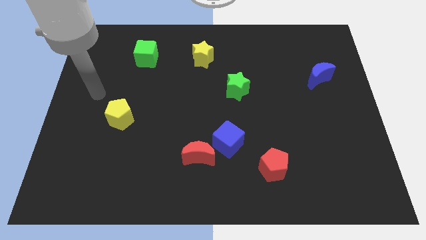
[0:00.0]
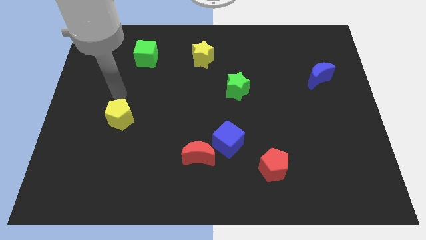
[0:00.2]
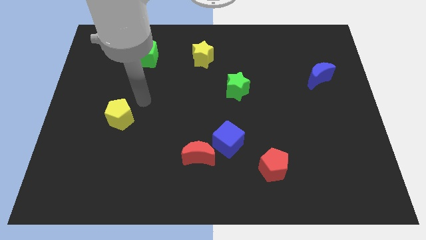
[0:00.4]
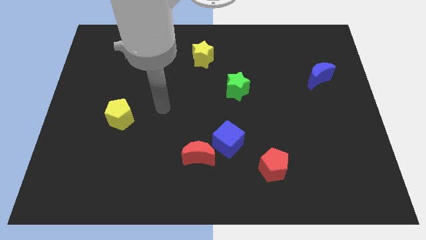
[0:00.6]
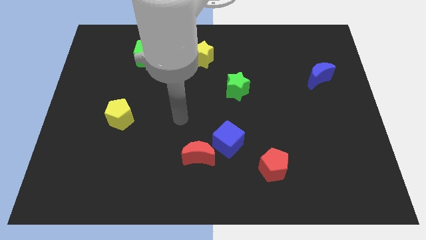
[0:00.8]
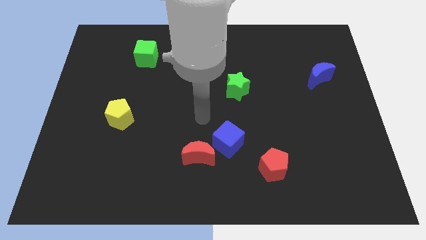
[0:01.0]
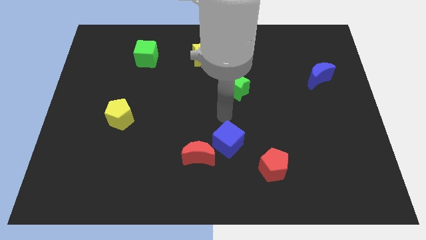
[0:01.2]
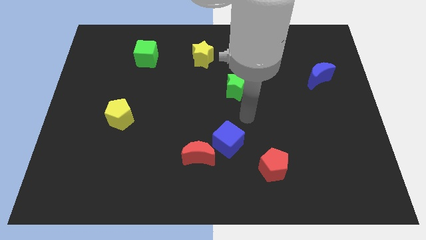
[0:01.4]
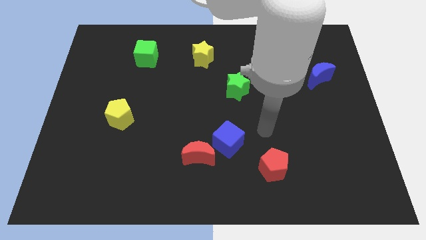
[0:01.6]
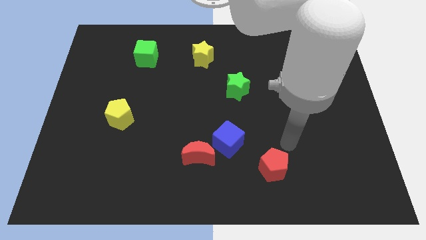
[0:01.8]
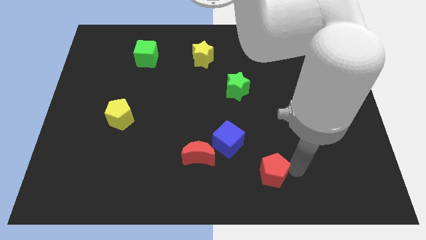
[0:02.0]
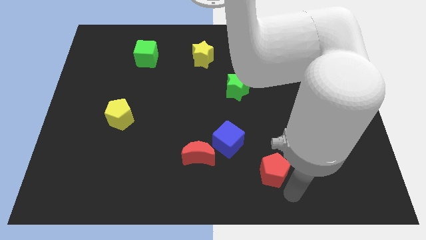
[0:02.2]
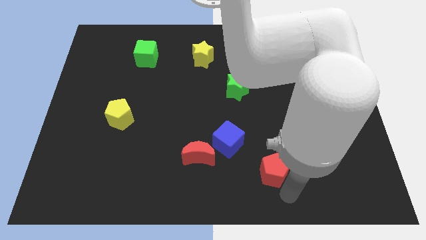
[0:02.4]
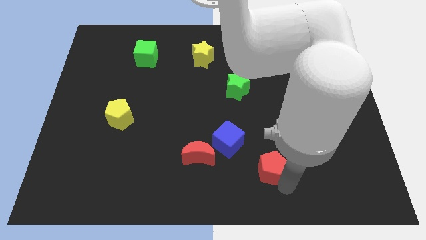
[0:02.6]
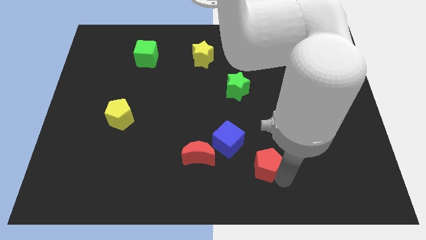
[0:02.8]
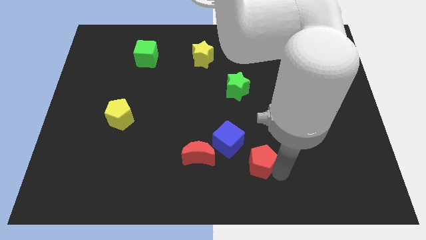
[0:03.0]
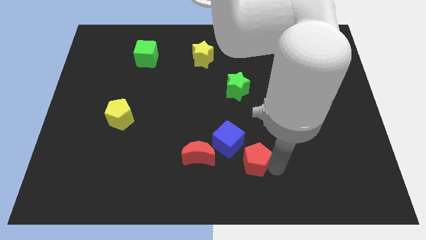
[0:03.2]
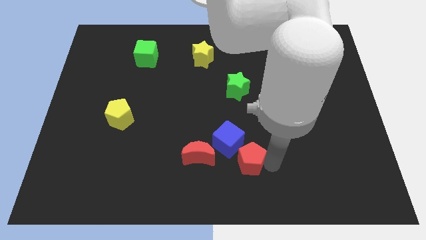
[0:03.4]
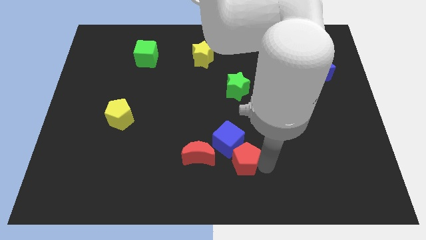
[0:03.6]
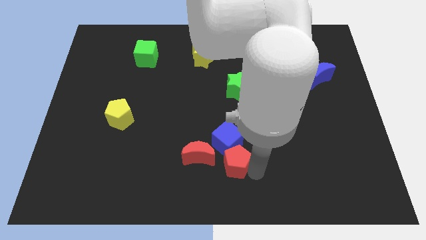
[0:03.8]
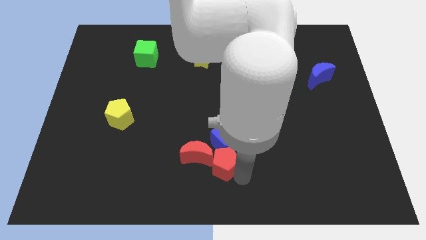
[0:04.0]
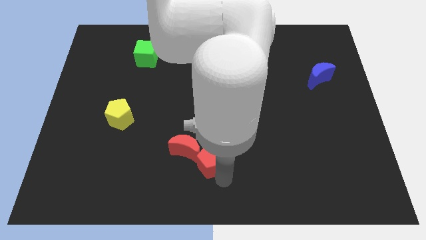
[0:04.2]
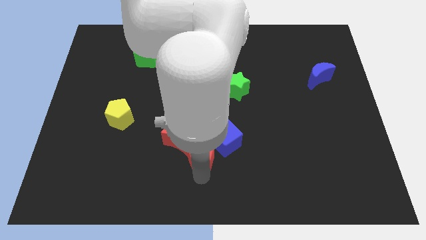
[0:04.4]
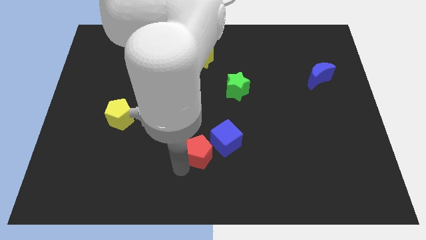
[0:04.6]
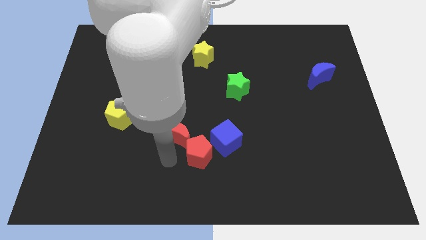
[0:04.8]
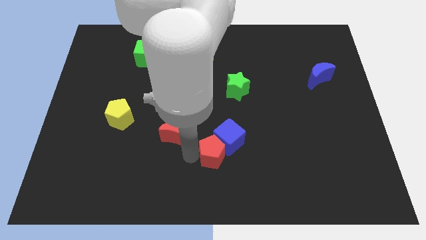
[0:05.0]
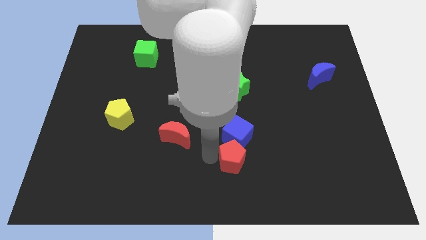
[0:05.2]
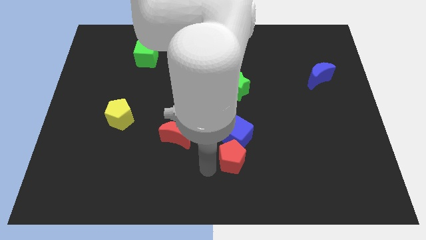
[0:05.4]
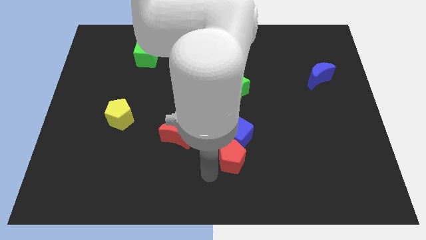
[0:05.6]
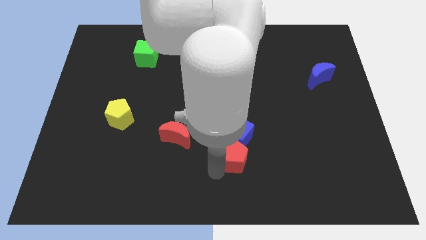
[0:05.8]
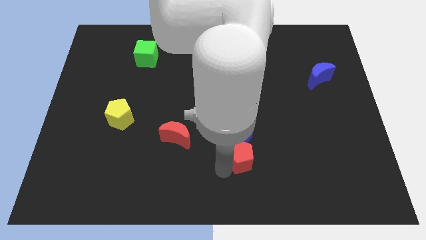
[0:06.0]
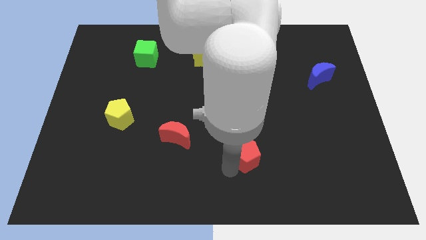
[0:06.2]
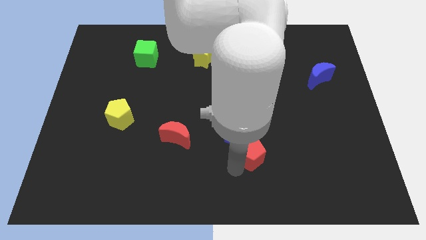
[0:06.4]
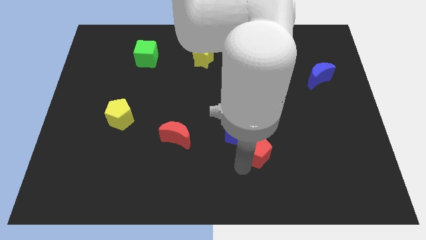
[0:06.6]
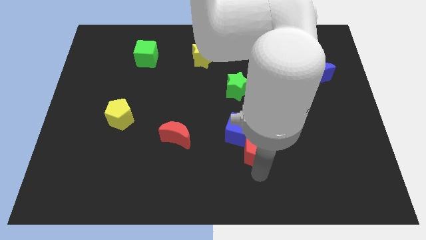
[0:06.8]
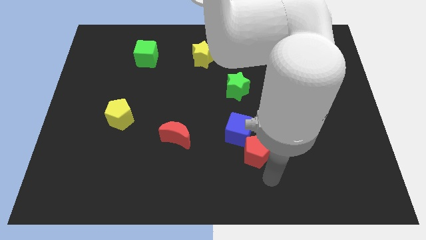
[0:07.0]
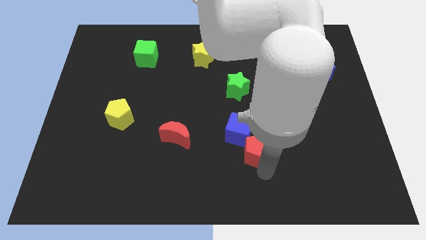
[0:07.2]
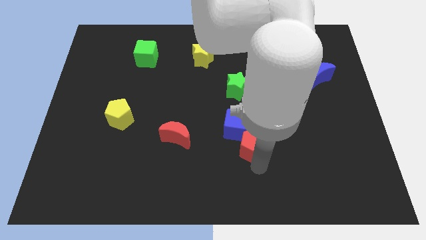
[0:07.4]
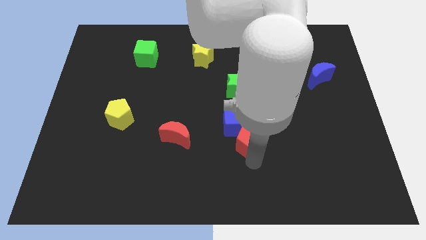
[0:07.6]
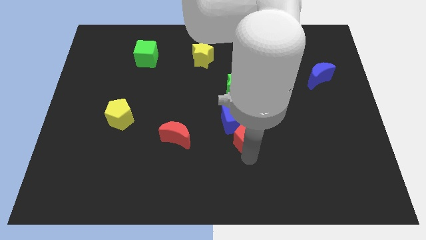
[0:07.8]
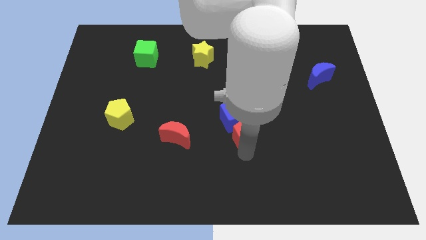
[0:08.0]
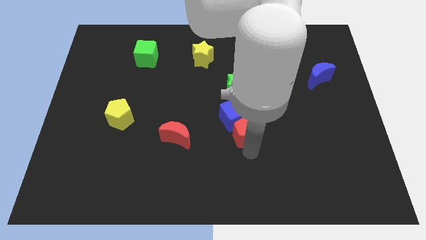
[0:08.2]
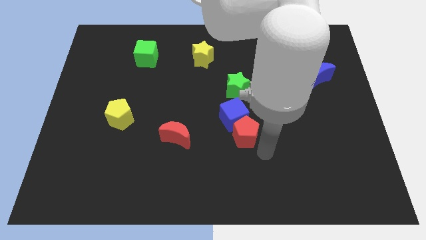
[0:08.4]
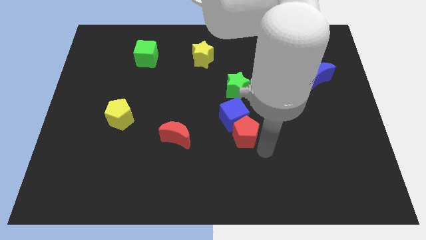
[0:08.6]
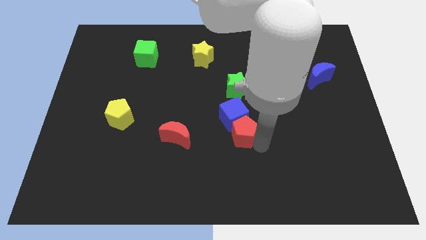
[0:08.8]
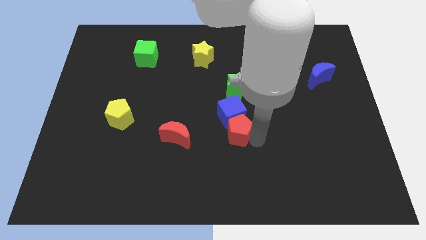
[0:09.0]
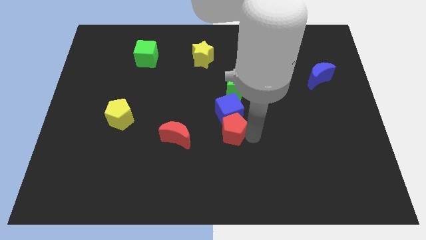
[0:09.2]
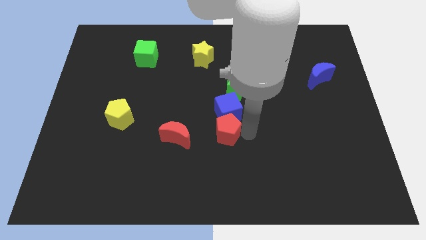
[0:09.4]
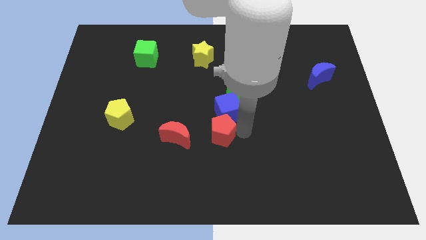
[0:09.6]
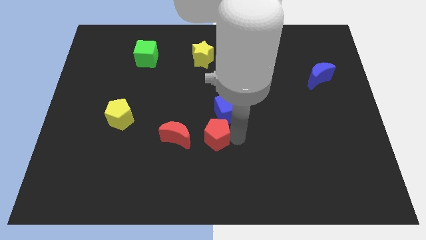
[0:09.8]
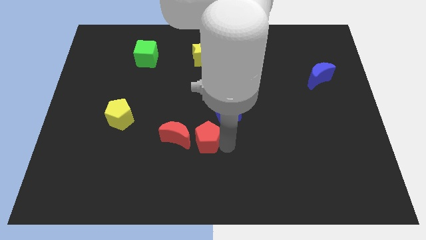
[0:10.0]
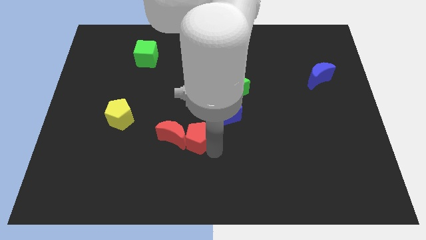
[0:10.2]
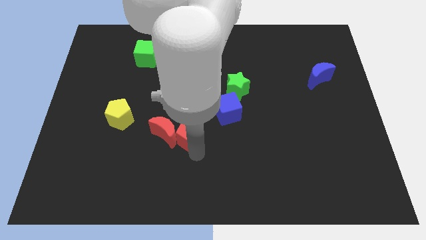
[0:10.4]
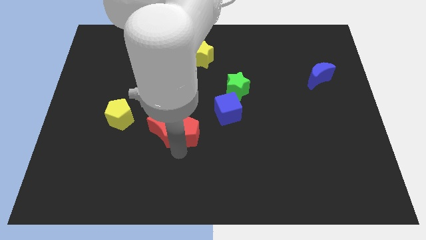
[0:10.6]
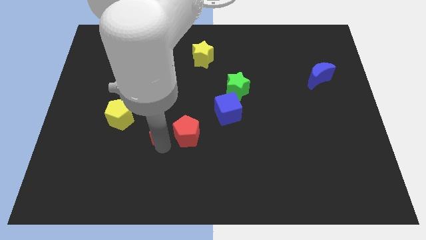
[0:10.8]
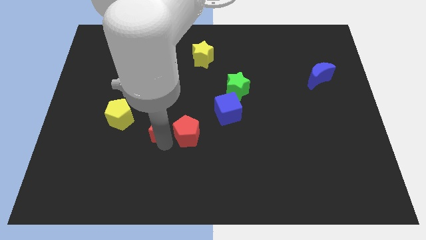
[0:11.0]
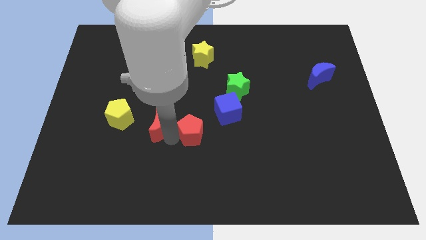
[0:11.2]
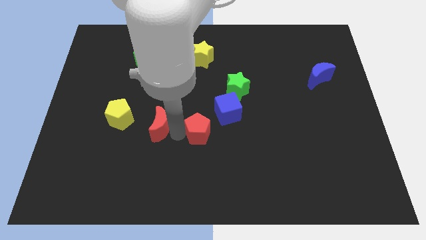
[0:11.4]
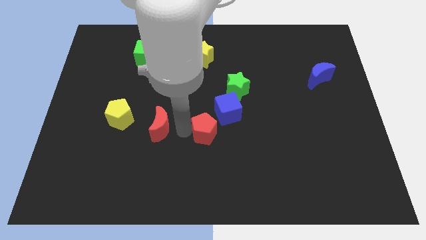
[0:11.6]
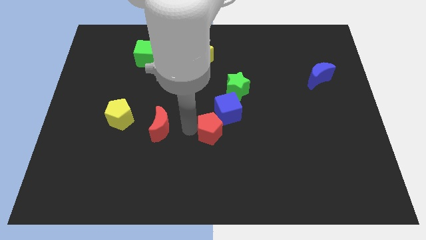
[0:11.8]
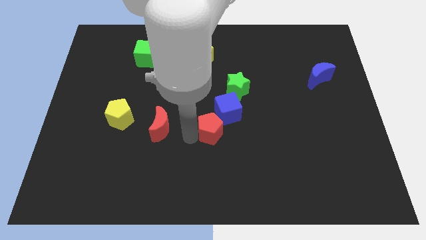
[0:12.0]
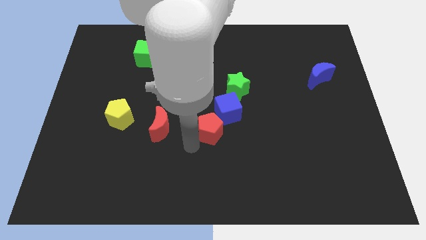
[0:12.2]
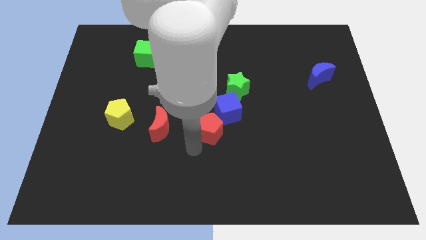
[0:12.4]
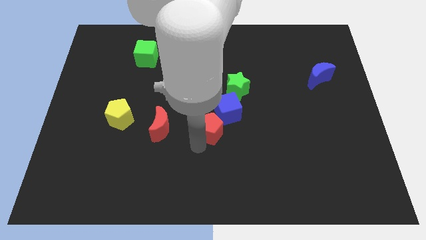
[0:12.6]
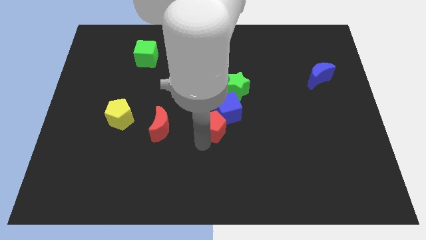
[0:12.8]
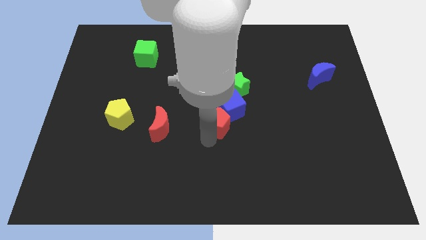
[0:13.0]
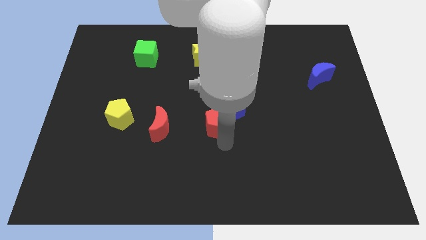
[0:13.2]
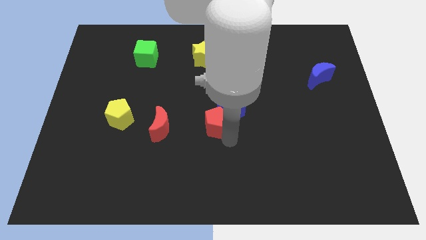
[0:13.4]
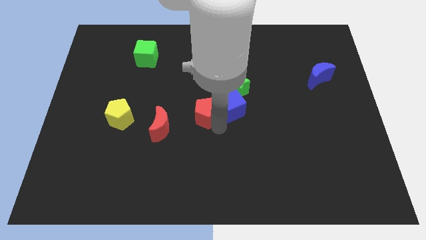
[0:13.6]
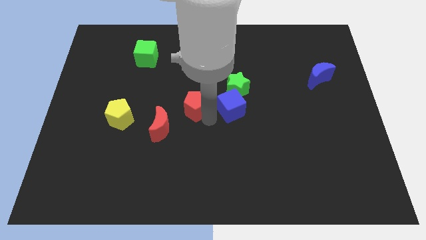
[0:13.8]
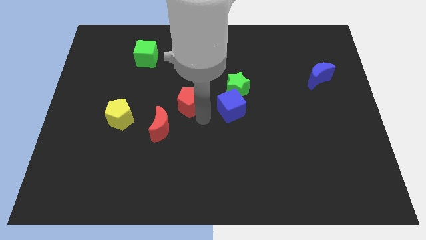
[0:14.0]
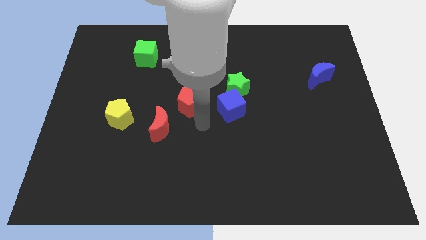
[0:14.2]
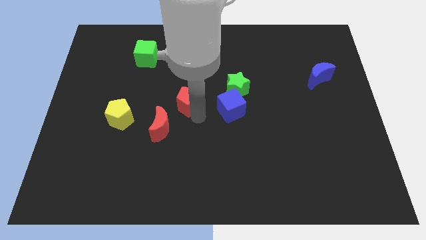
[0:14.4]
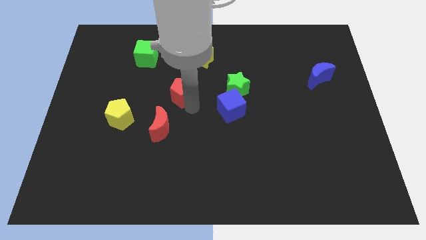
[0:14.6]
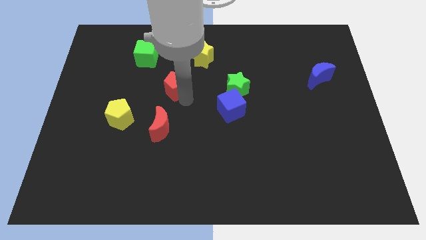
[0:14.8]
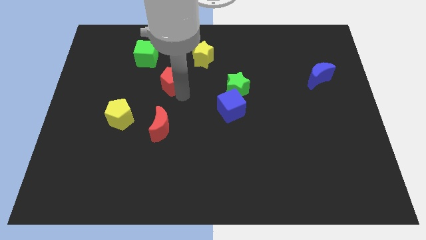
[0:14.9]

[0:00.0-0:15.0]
slide the red pentagon diagonally down and to the right of the green cube
